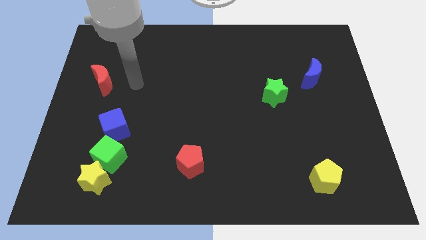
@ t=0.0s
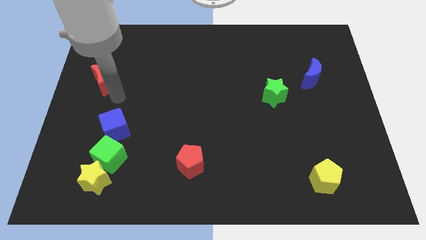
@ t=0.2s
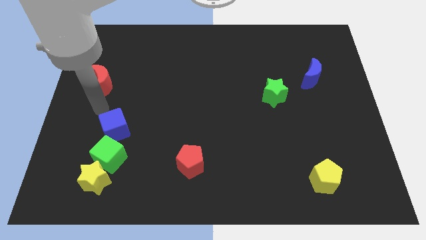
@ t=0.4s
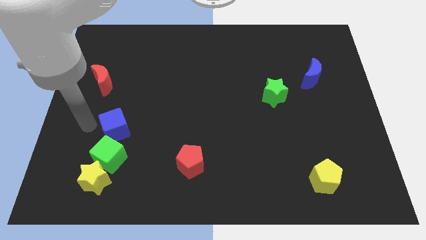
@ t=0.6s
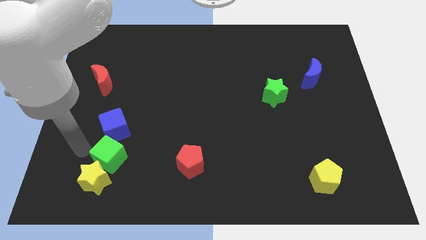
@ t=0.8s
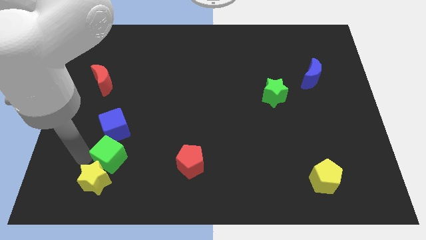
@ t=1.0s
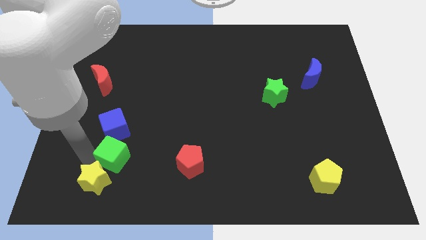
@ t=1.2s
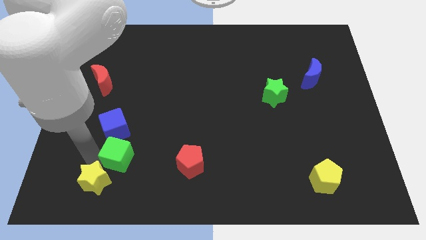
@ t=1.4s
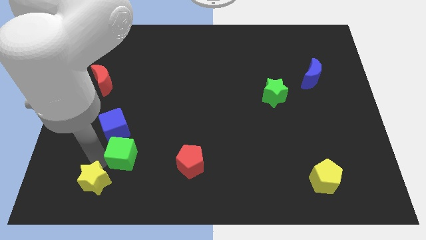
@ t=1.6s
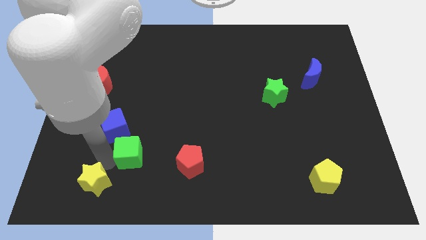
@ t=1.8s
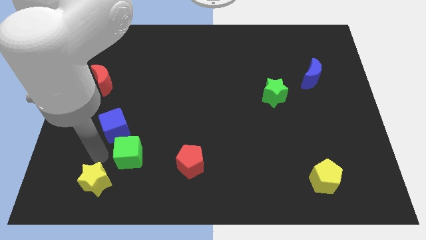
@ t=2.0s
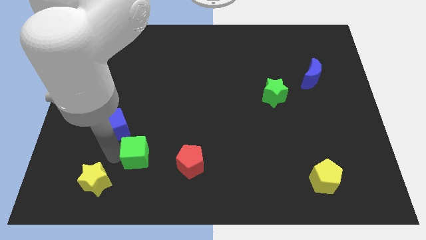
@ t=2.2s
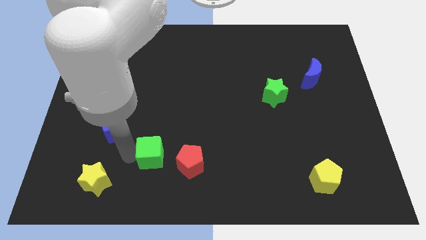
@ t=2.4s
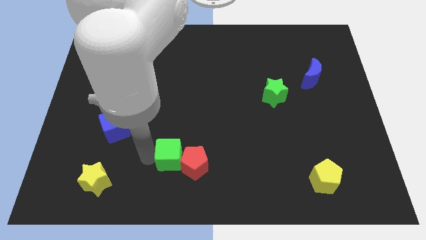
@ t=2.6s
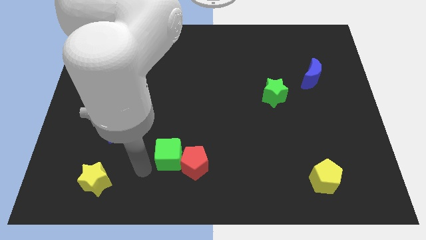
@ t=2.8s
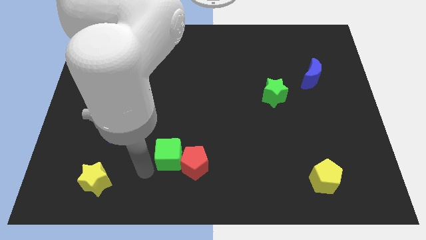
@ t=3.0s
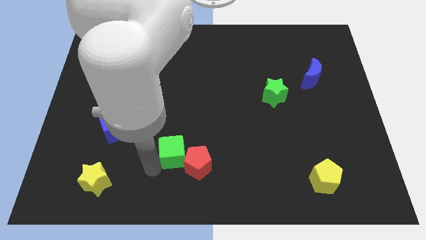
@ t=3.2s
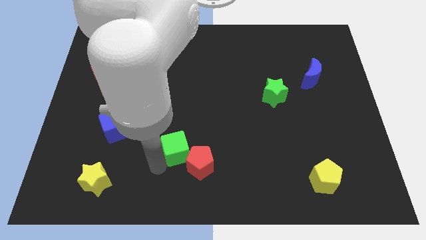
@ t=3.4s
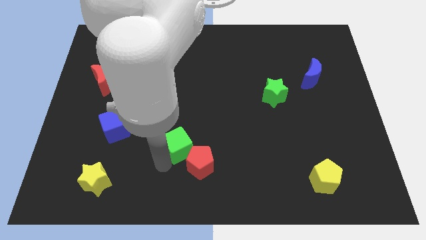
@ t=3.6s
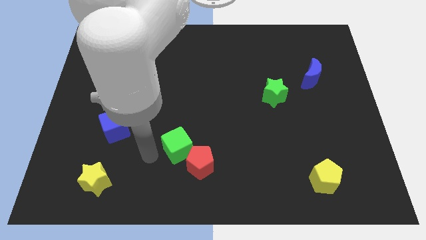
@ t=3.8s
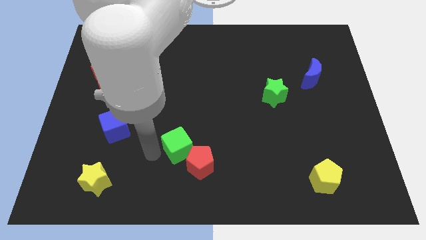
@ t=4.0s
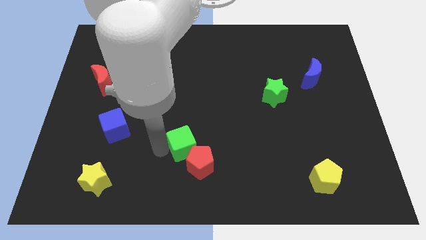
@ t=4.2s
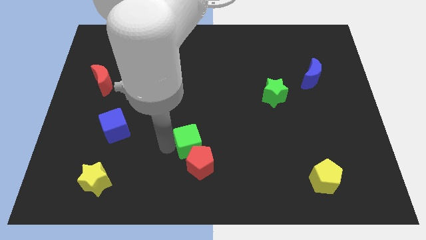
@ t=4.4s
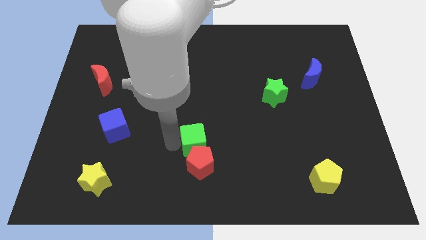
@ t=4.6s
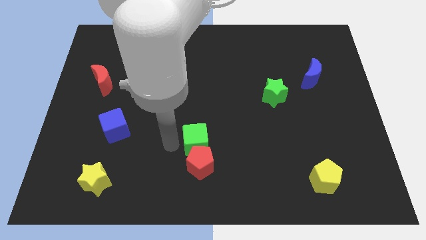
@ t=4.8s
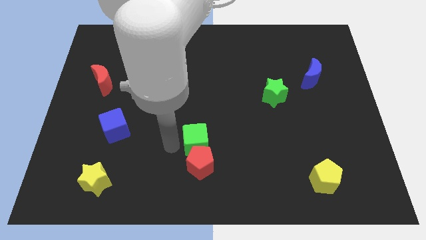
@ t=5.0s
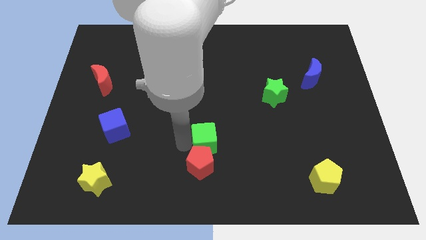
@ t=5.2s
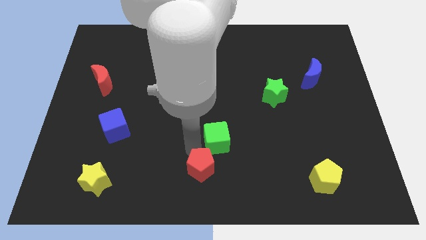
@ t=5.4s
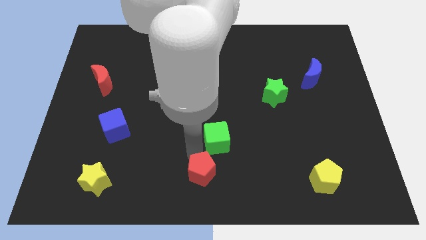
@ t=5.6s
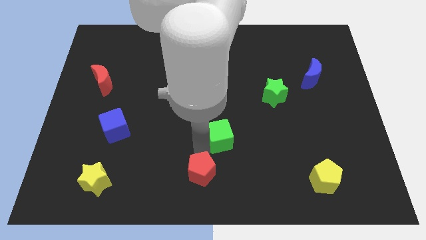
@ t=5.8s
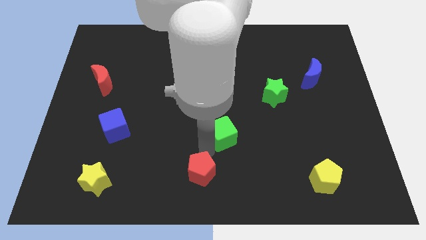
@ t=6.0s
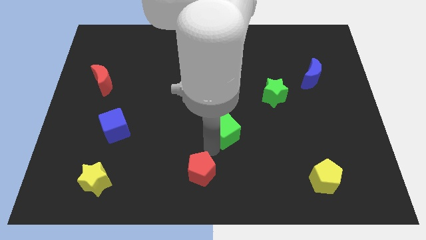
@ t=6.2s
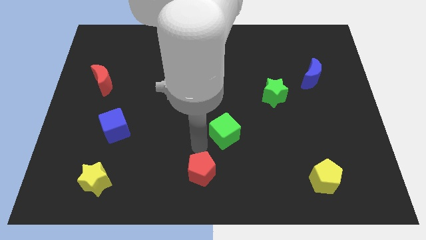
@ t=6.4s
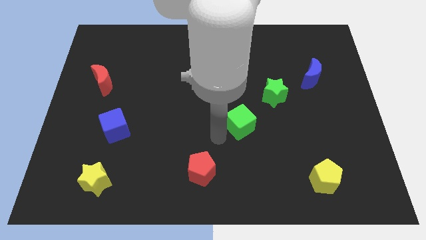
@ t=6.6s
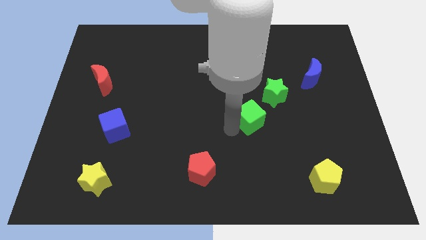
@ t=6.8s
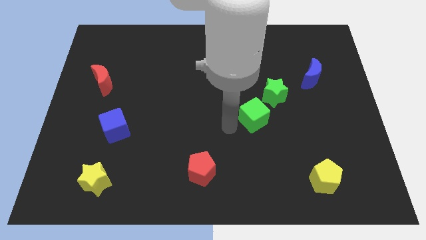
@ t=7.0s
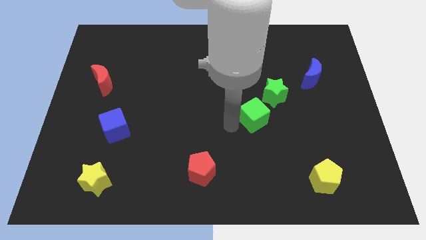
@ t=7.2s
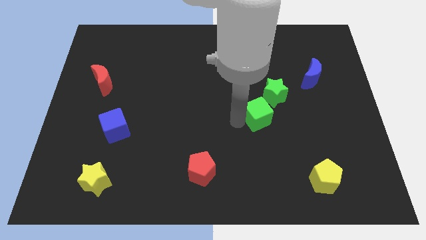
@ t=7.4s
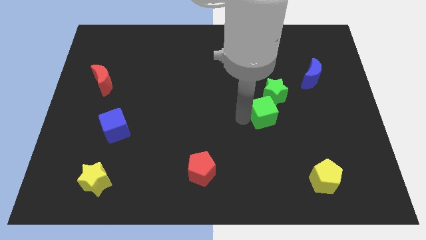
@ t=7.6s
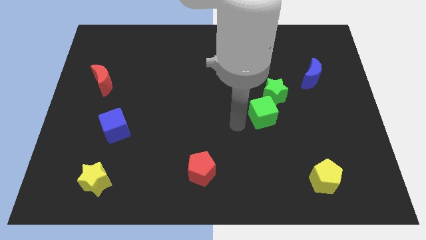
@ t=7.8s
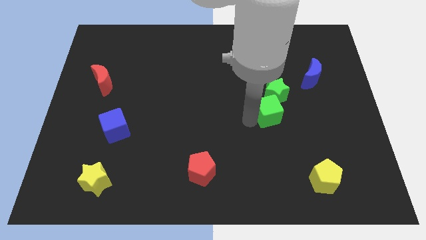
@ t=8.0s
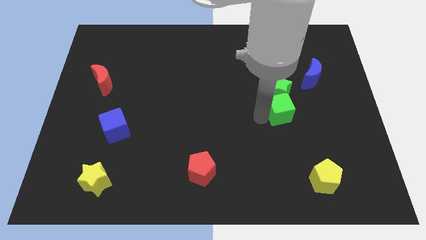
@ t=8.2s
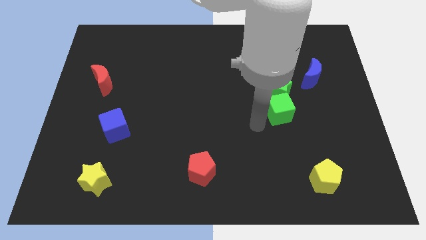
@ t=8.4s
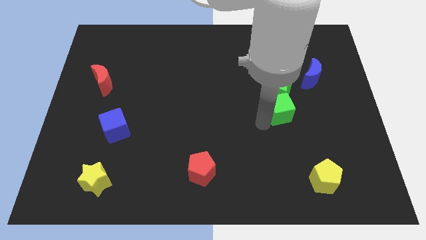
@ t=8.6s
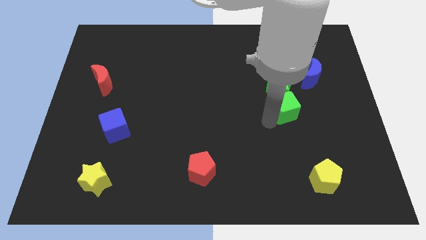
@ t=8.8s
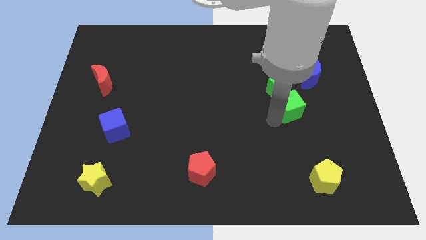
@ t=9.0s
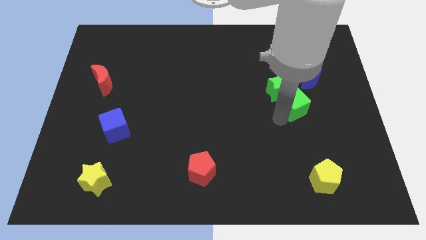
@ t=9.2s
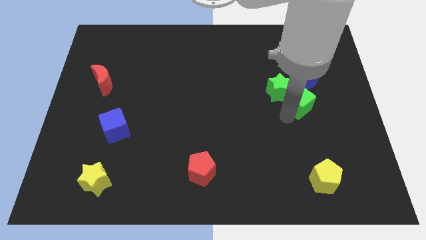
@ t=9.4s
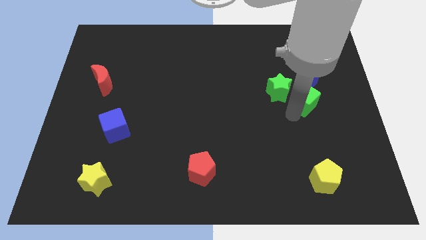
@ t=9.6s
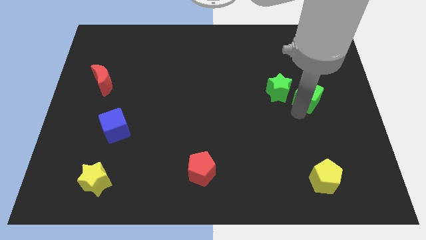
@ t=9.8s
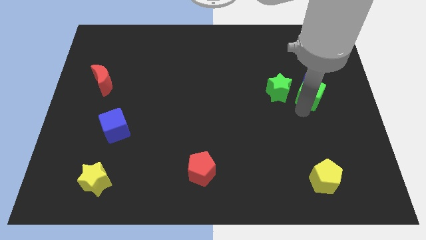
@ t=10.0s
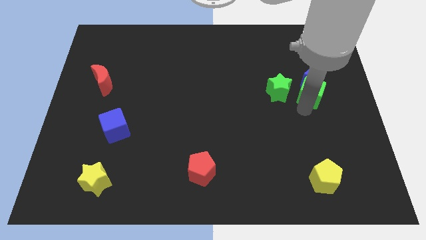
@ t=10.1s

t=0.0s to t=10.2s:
move the green cube next to the blue moon

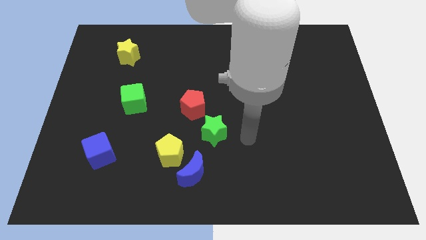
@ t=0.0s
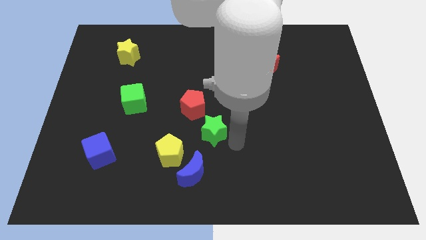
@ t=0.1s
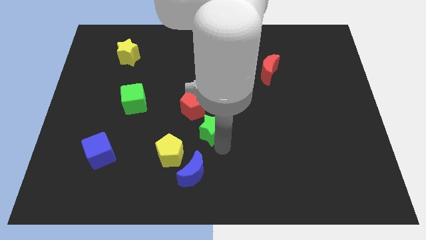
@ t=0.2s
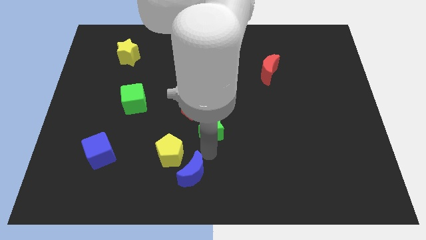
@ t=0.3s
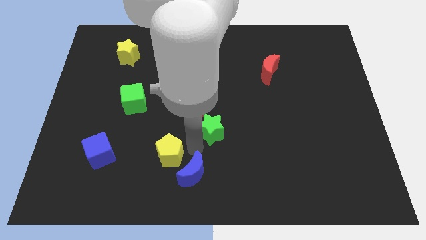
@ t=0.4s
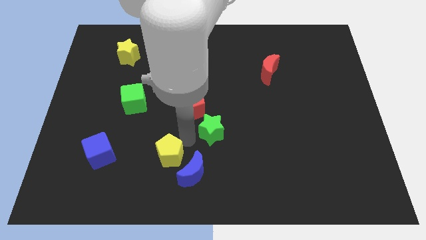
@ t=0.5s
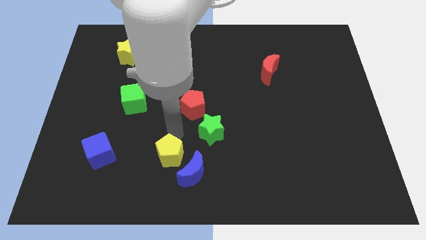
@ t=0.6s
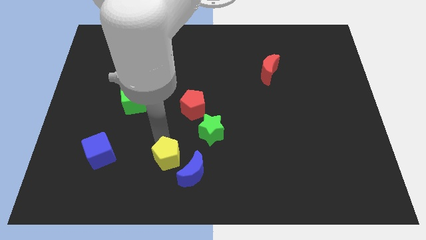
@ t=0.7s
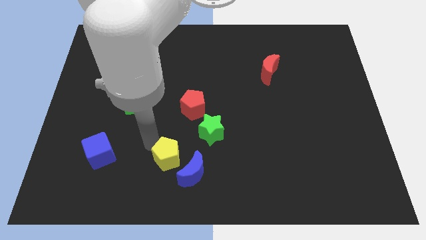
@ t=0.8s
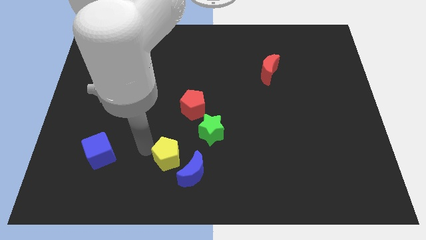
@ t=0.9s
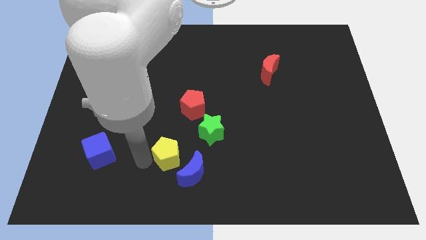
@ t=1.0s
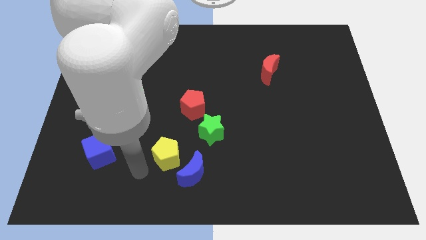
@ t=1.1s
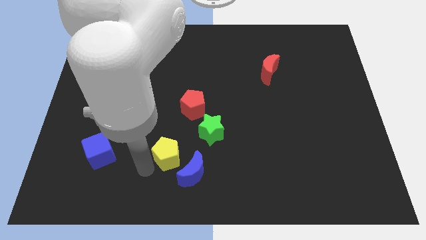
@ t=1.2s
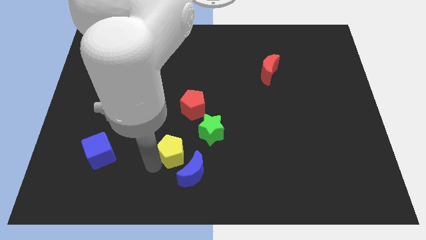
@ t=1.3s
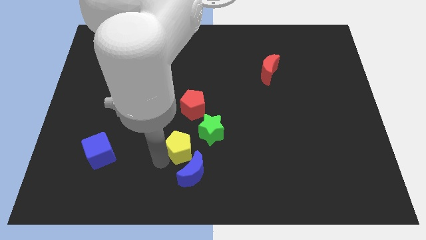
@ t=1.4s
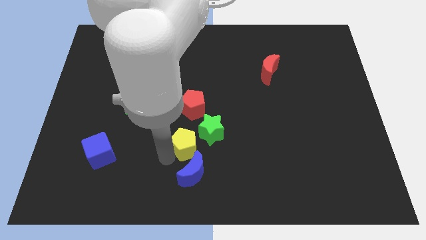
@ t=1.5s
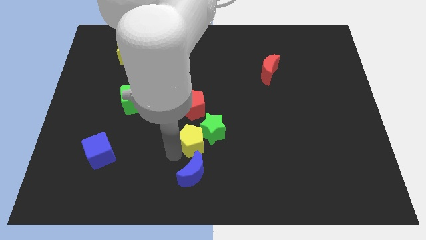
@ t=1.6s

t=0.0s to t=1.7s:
slide the yellow pentagon close to the green star
